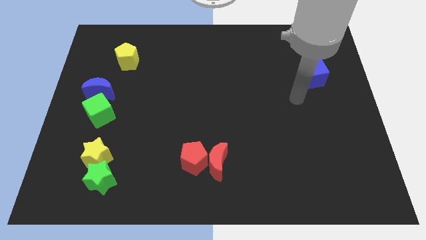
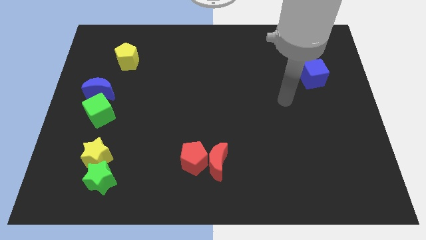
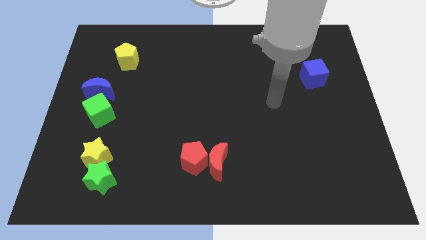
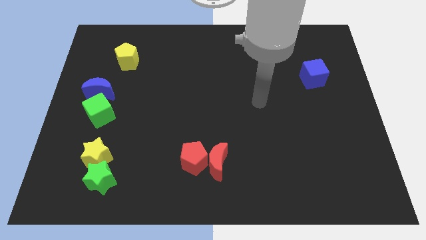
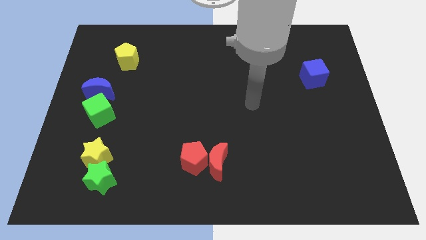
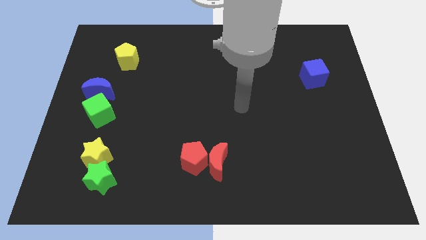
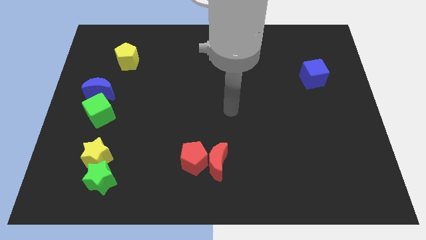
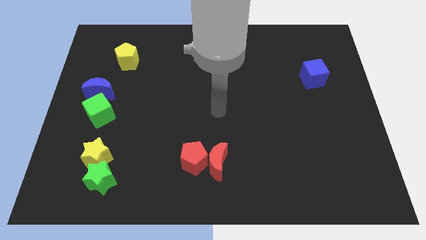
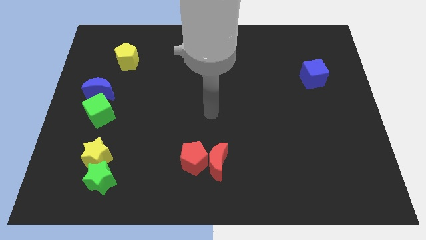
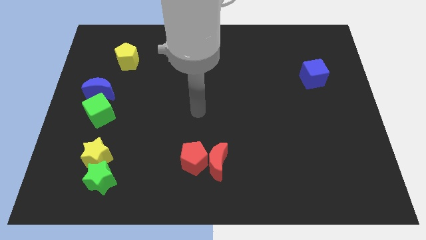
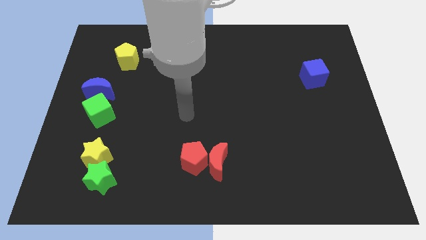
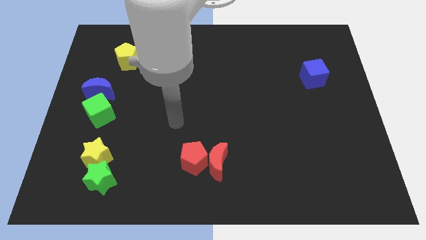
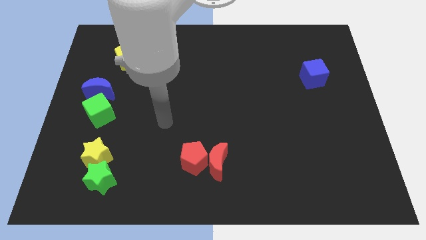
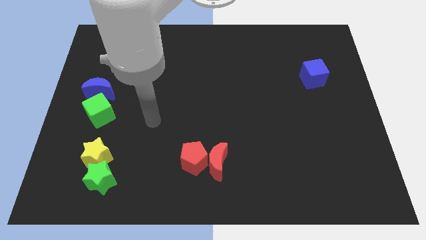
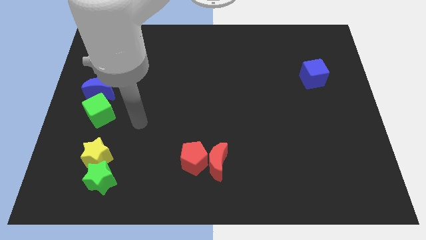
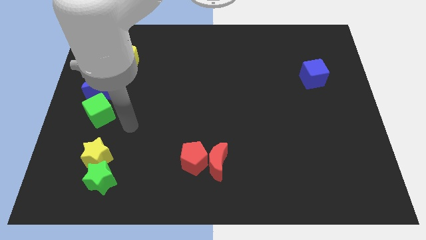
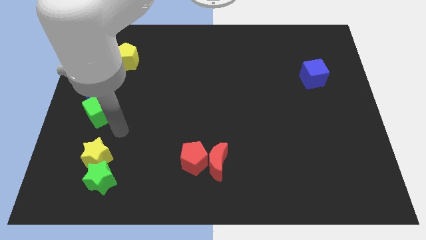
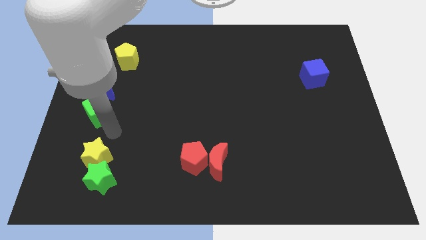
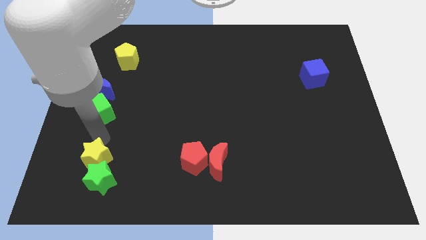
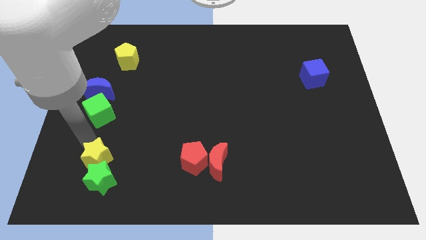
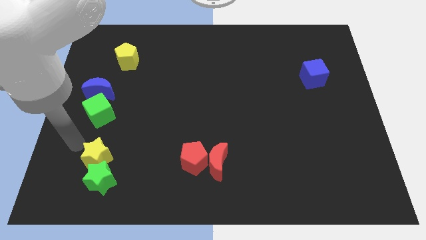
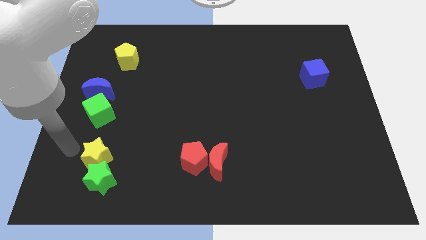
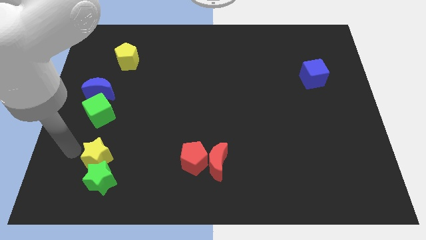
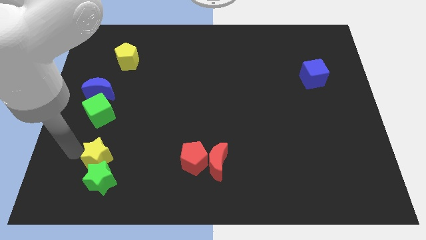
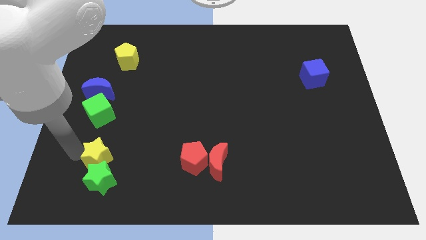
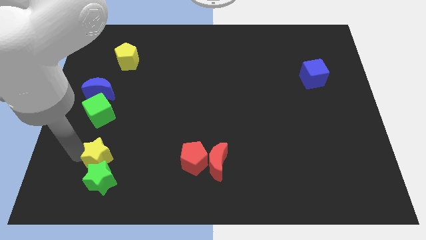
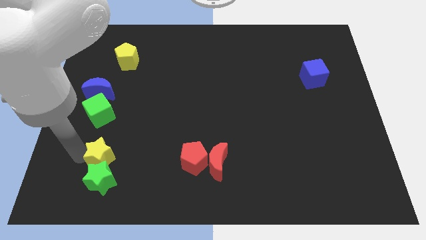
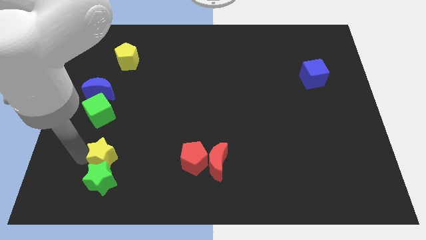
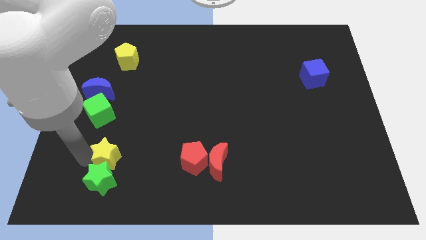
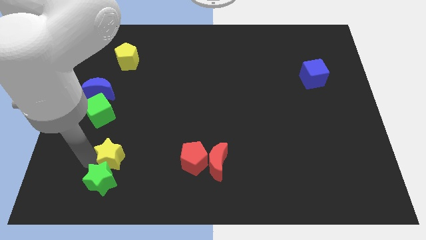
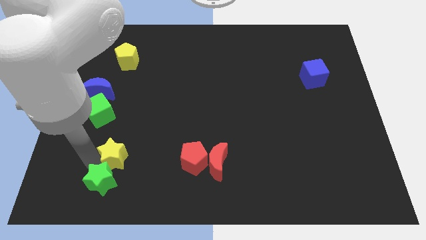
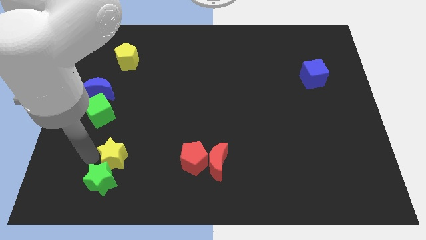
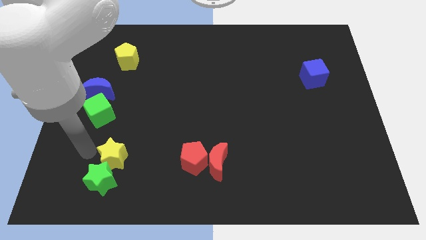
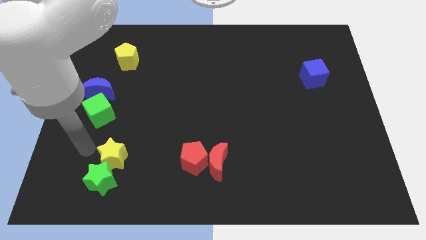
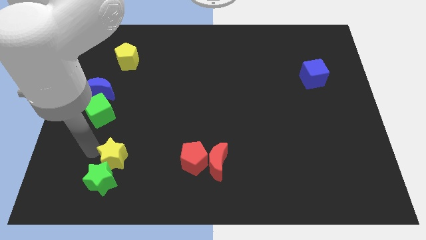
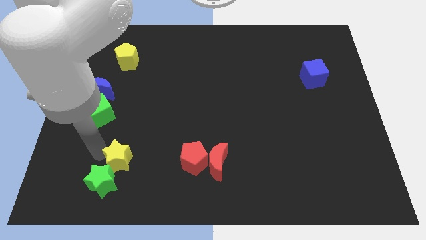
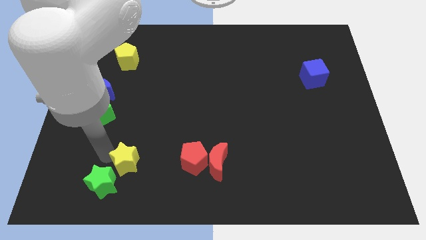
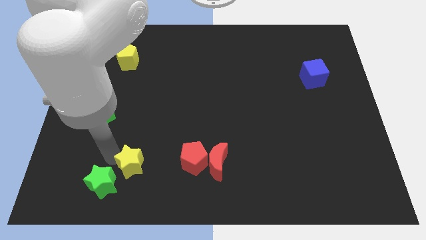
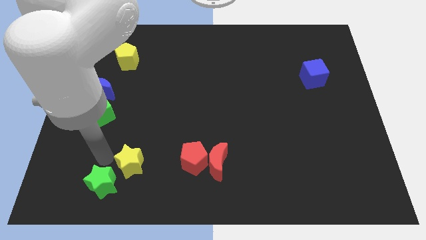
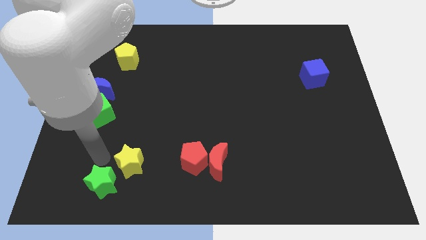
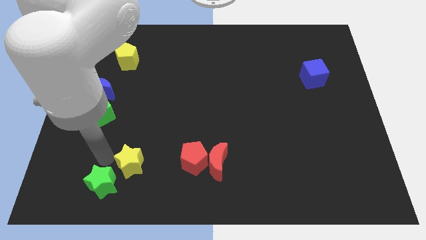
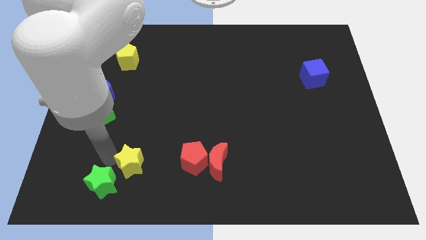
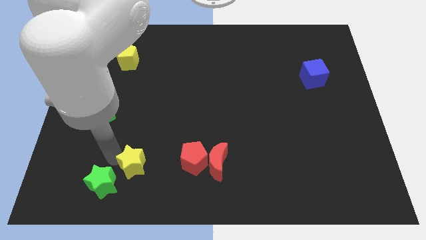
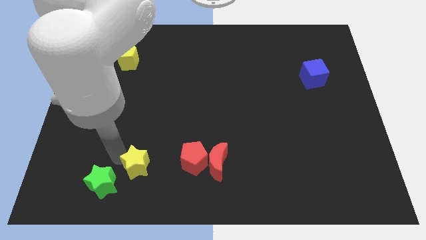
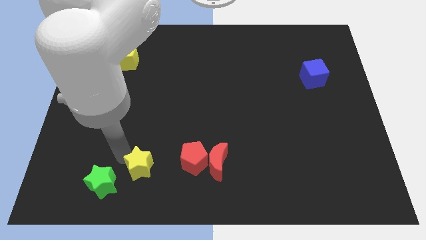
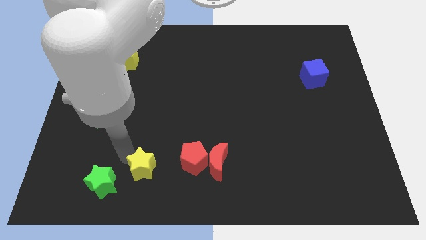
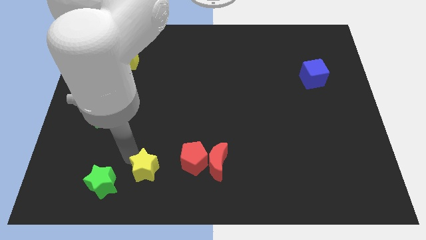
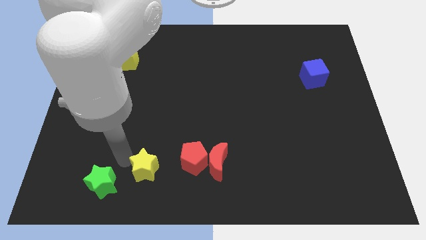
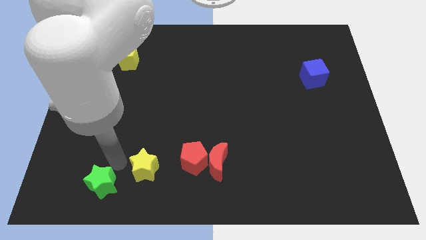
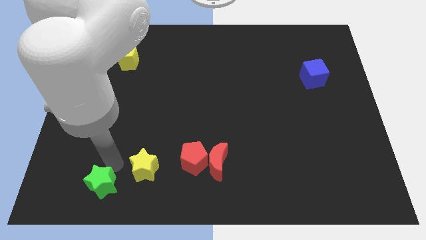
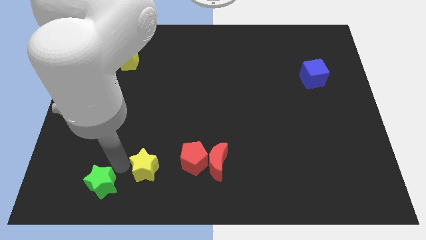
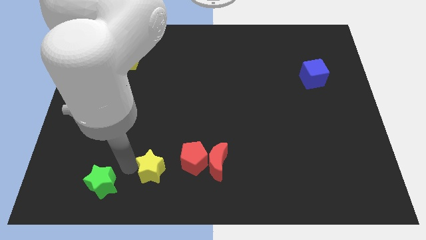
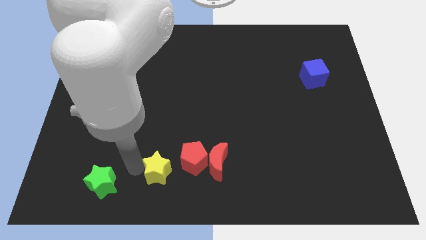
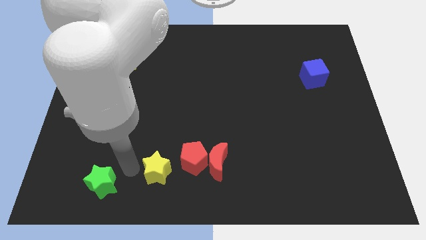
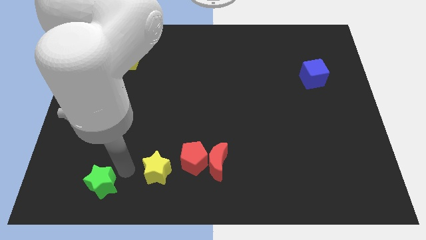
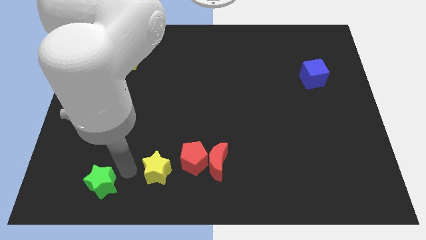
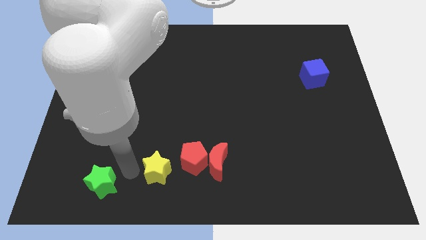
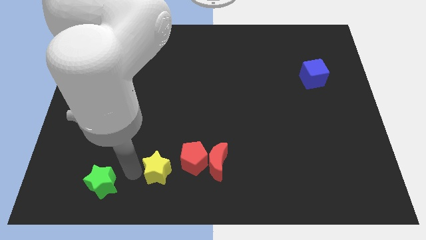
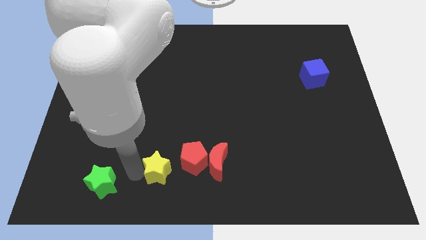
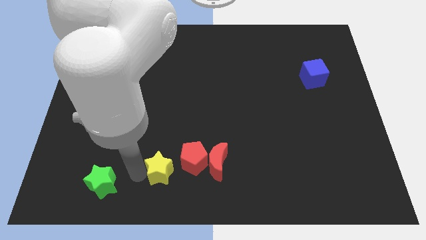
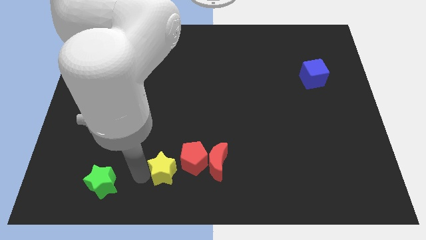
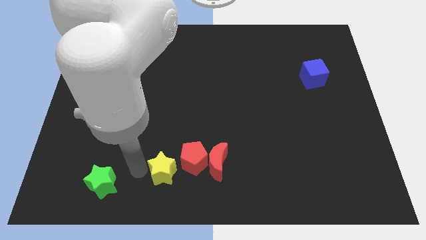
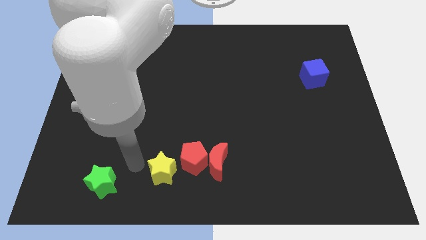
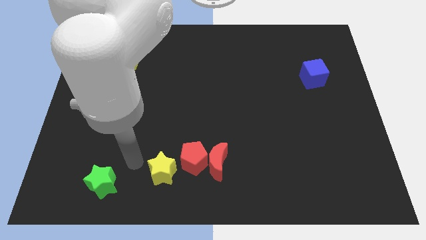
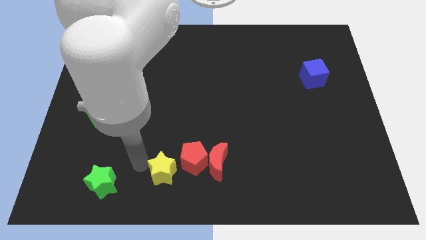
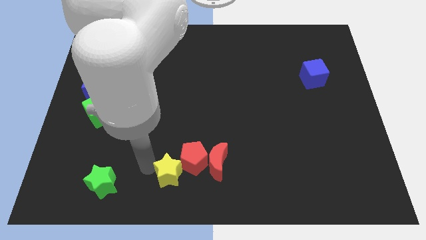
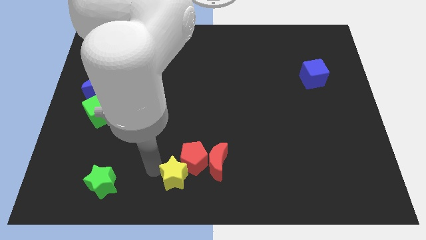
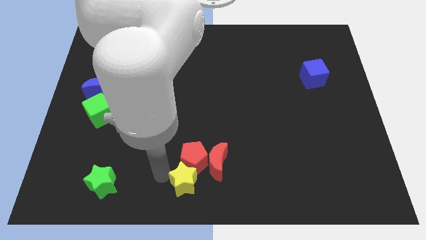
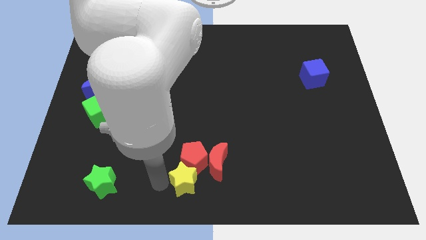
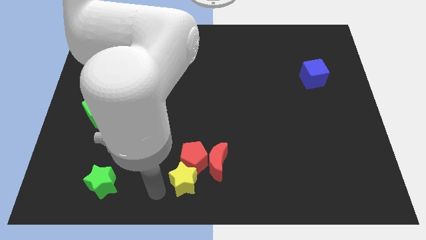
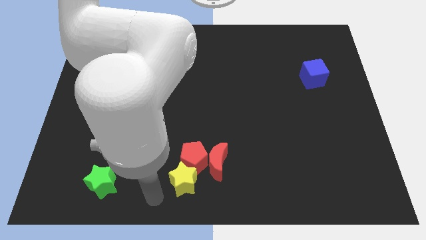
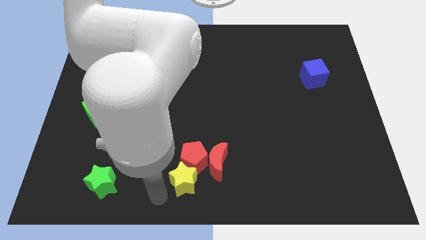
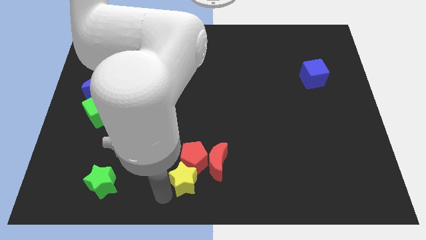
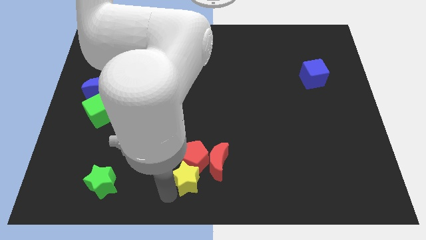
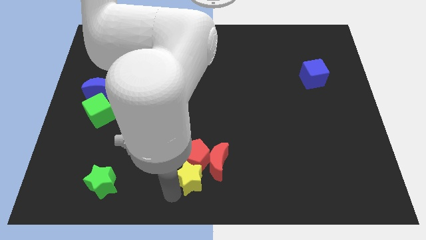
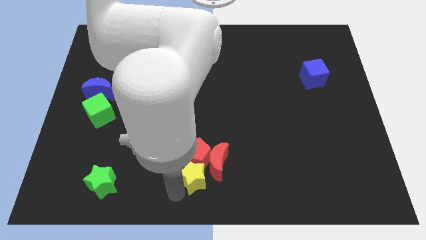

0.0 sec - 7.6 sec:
push the yellow star towards the red moon
